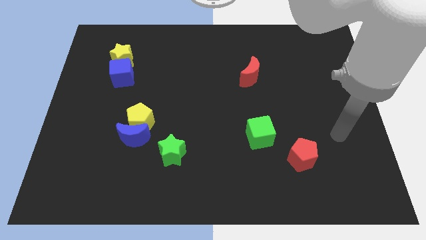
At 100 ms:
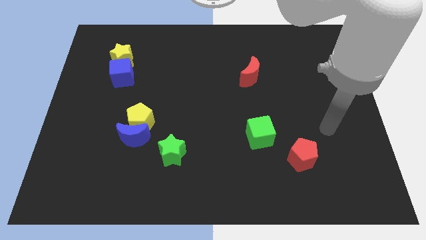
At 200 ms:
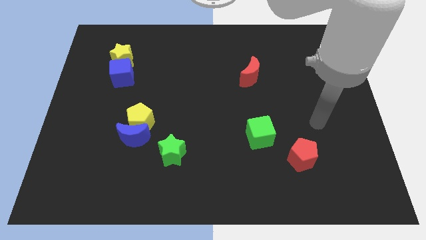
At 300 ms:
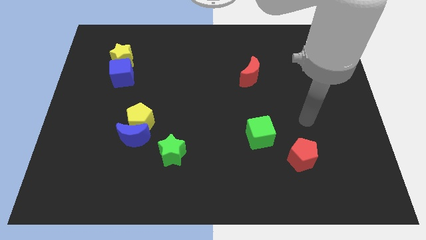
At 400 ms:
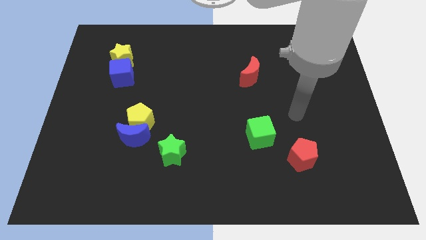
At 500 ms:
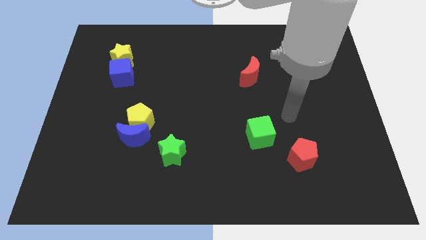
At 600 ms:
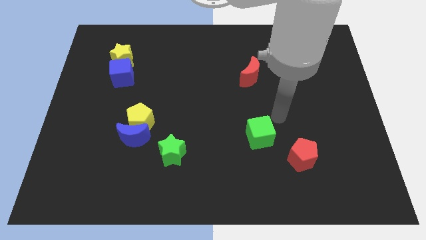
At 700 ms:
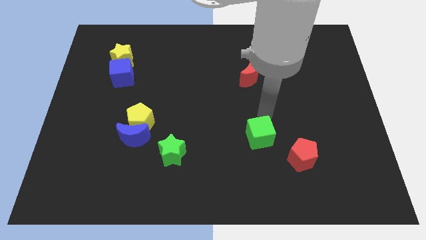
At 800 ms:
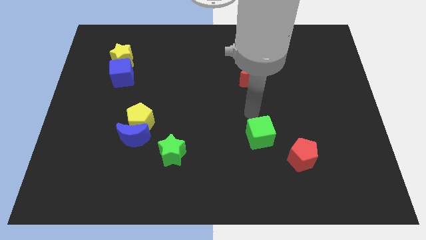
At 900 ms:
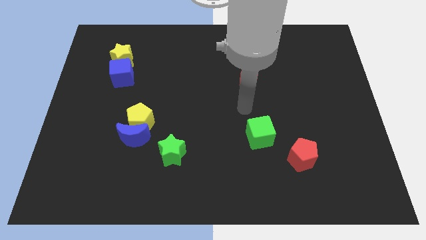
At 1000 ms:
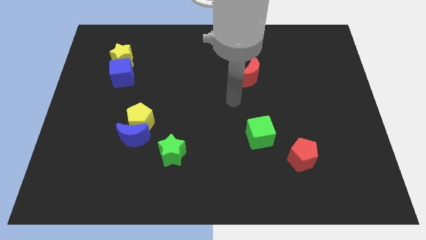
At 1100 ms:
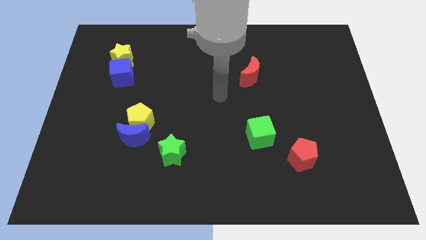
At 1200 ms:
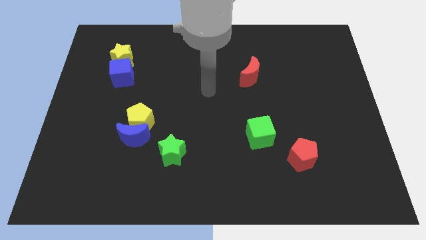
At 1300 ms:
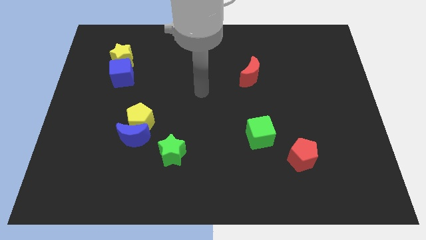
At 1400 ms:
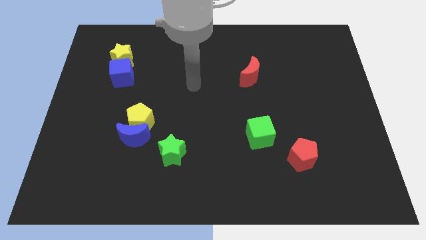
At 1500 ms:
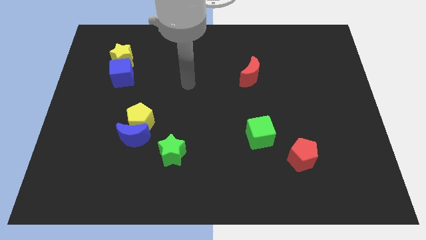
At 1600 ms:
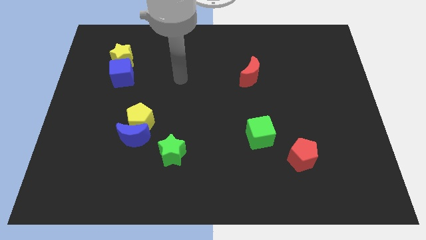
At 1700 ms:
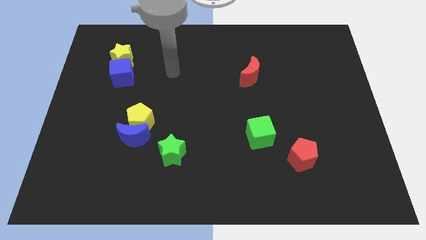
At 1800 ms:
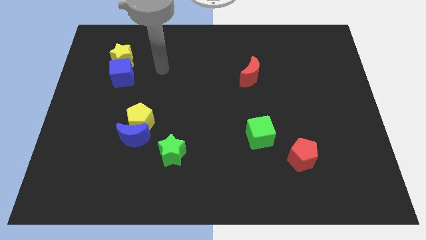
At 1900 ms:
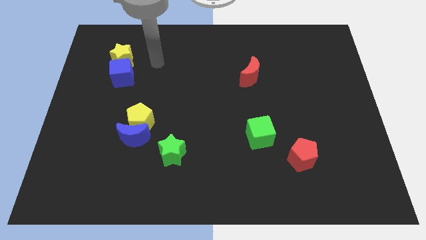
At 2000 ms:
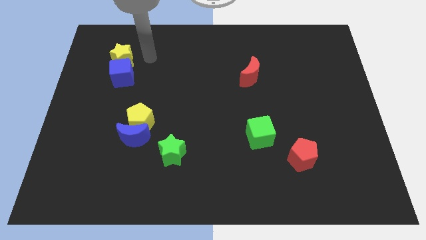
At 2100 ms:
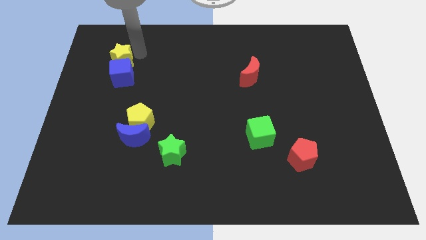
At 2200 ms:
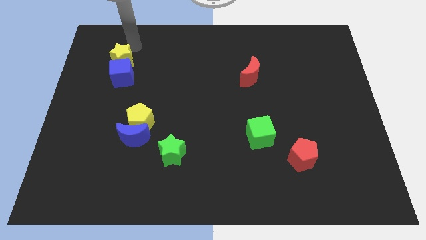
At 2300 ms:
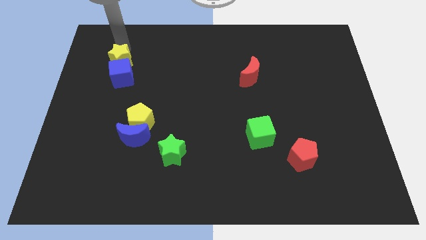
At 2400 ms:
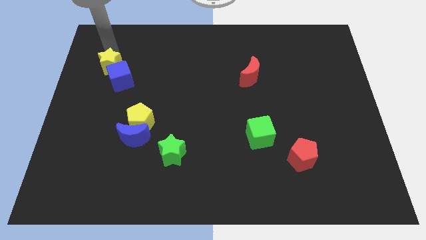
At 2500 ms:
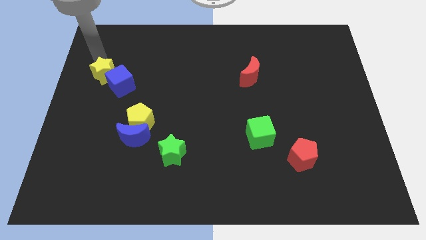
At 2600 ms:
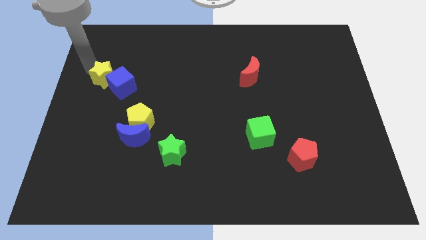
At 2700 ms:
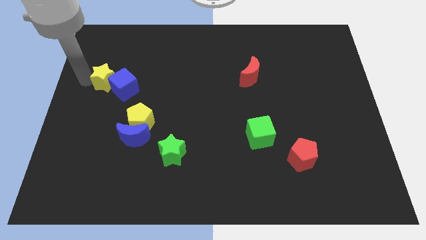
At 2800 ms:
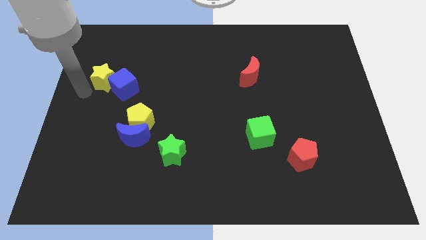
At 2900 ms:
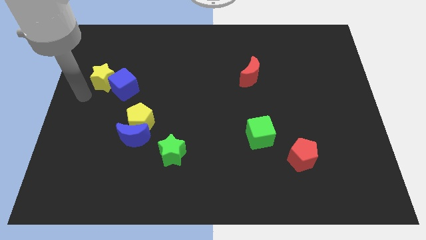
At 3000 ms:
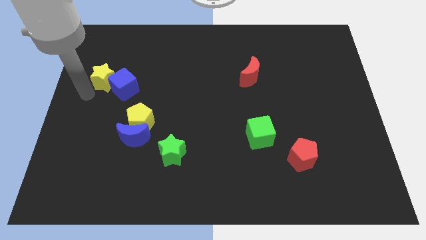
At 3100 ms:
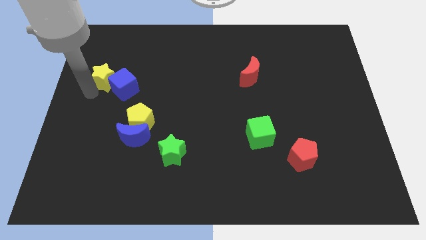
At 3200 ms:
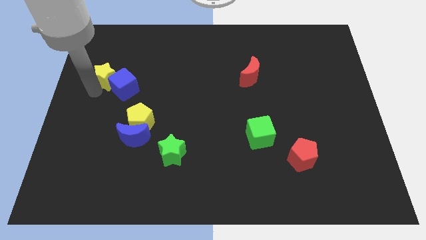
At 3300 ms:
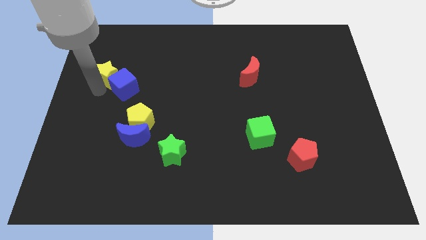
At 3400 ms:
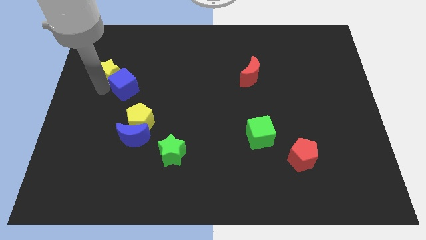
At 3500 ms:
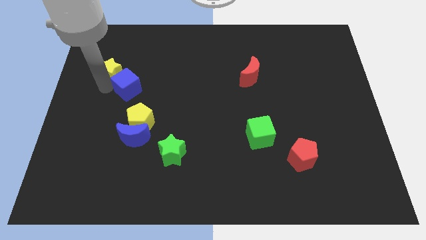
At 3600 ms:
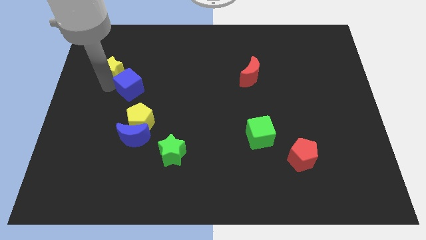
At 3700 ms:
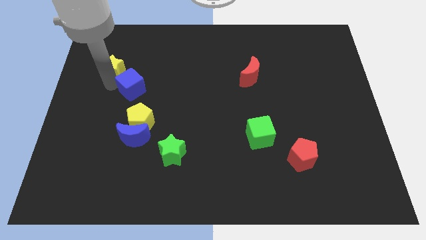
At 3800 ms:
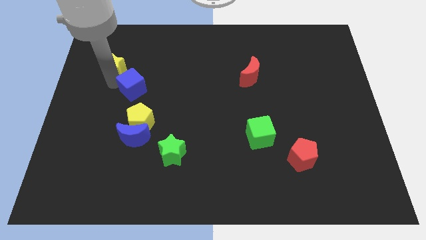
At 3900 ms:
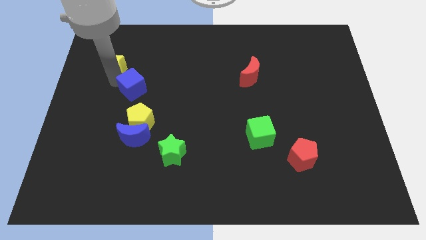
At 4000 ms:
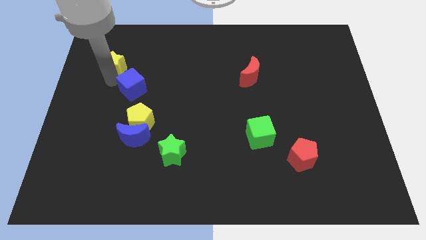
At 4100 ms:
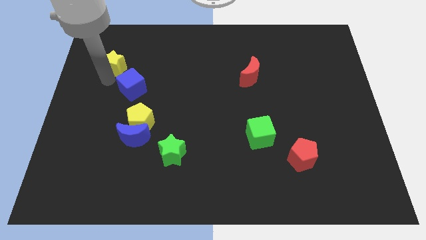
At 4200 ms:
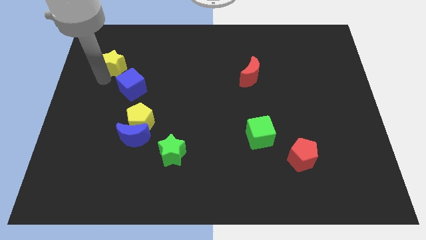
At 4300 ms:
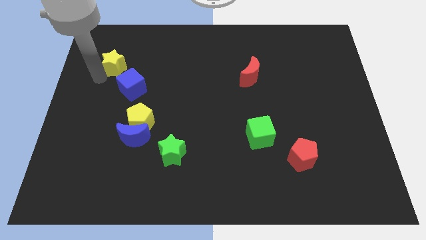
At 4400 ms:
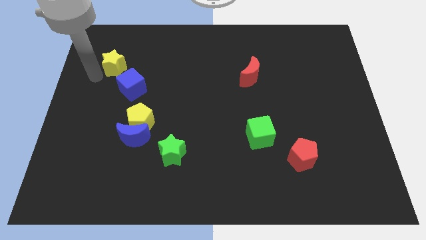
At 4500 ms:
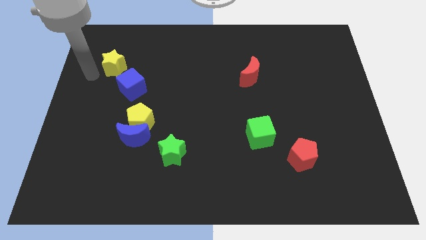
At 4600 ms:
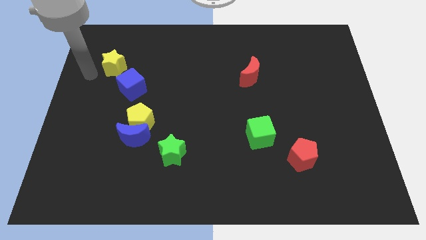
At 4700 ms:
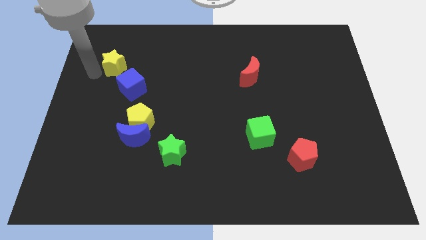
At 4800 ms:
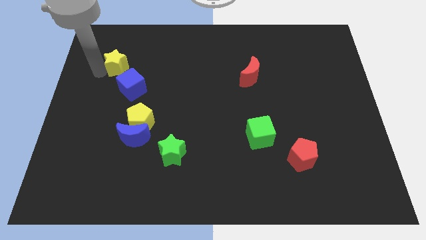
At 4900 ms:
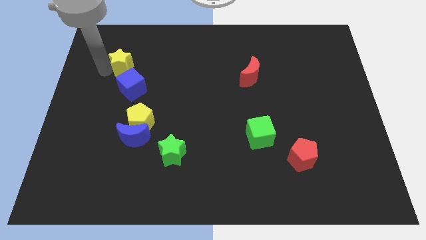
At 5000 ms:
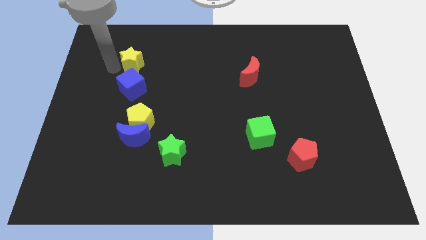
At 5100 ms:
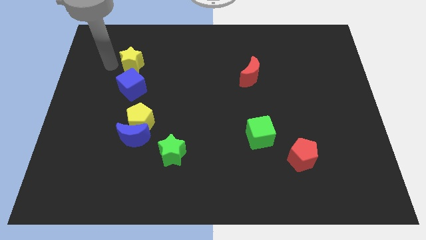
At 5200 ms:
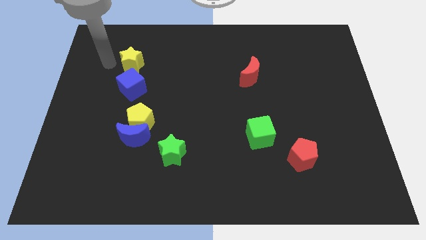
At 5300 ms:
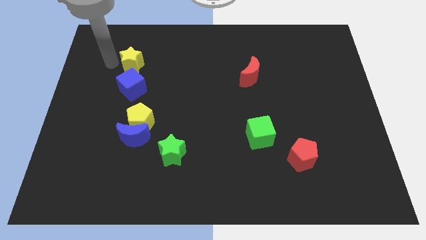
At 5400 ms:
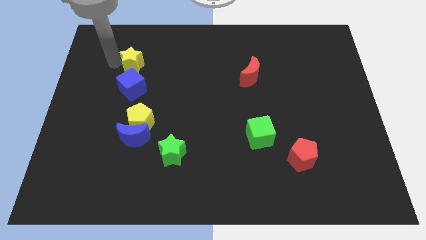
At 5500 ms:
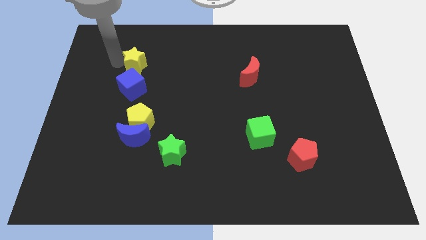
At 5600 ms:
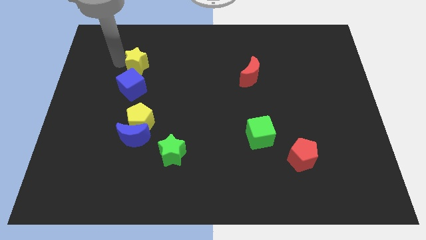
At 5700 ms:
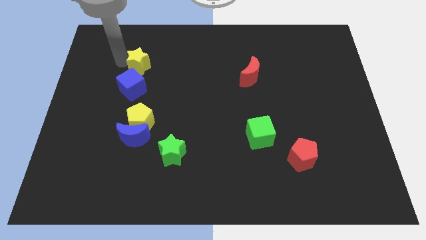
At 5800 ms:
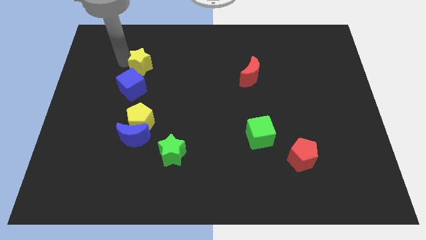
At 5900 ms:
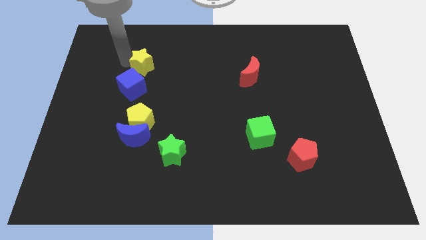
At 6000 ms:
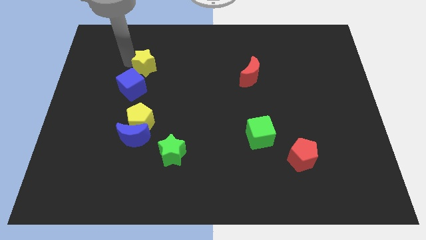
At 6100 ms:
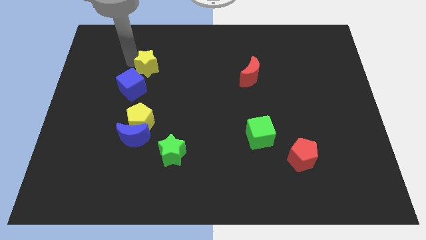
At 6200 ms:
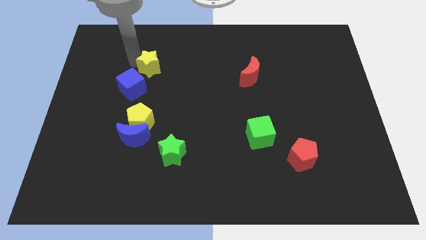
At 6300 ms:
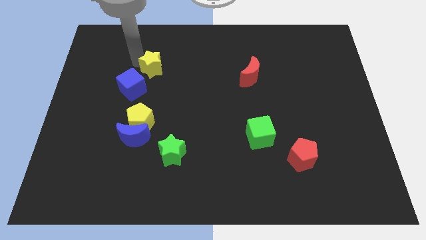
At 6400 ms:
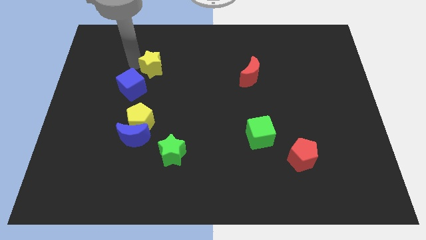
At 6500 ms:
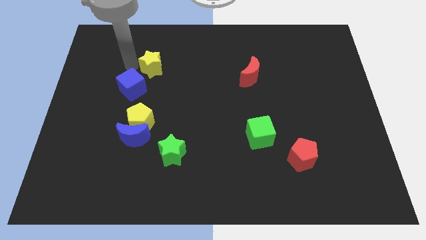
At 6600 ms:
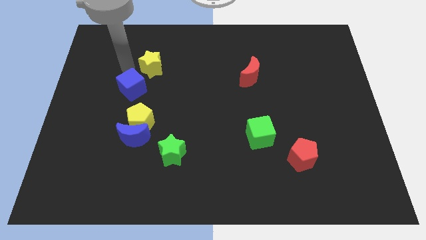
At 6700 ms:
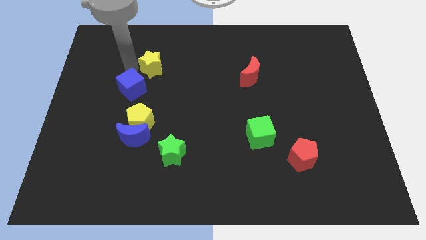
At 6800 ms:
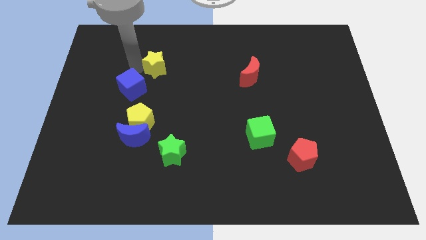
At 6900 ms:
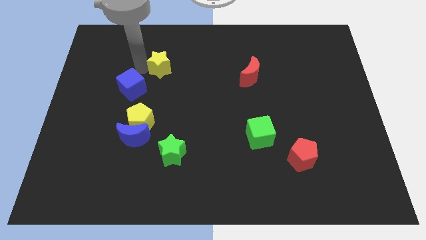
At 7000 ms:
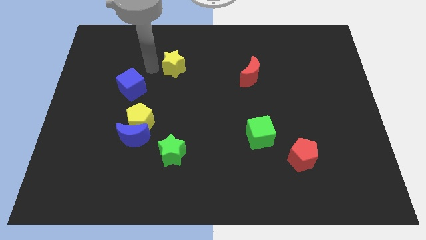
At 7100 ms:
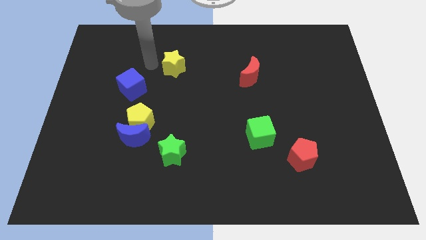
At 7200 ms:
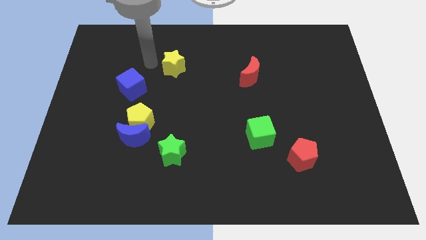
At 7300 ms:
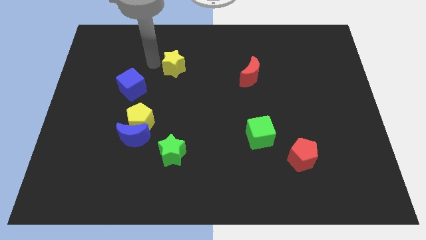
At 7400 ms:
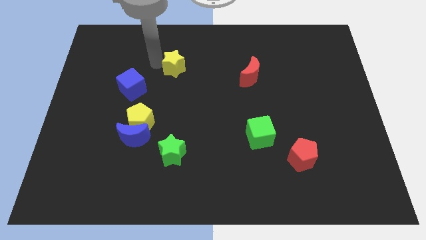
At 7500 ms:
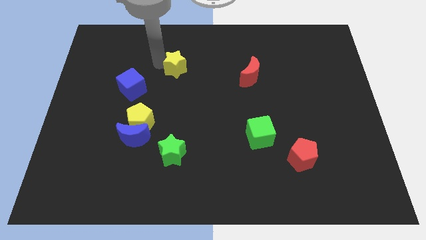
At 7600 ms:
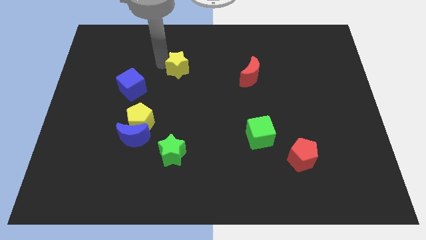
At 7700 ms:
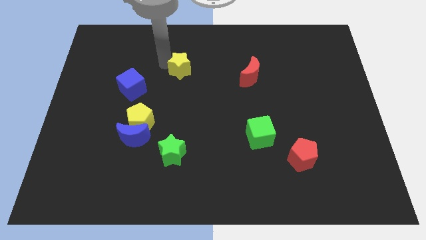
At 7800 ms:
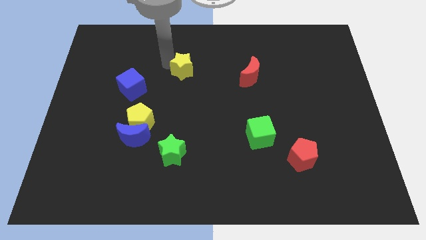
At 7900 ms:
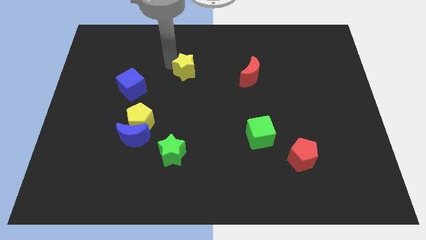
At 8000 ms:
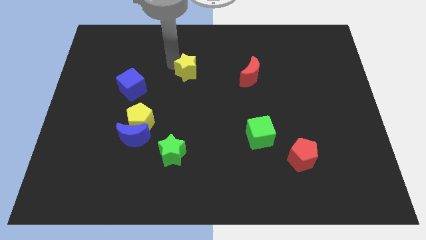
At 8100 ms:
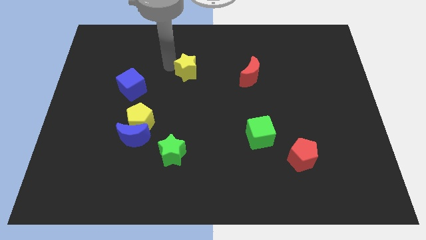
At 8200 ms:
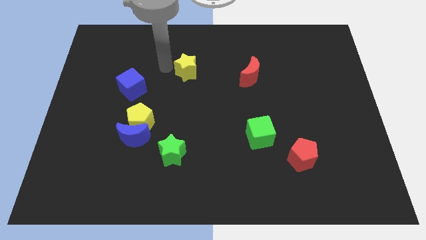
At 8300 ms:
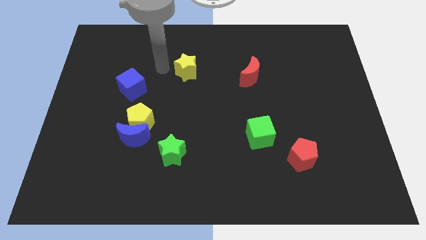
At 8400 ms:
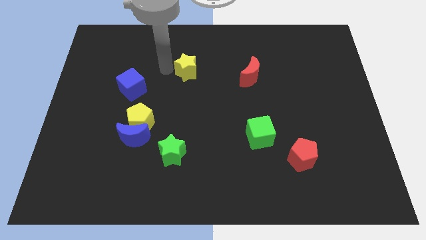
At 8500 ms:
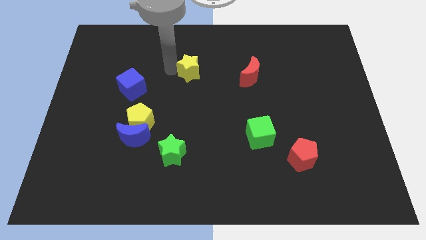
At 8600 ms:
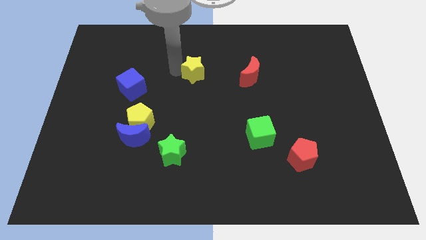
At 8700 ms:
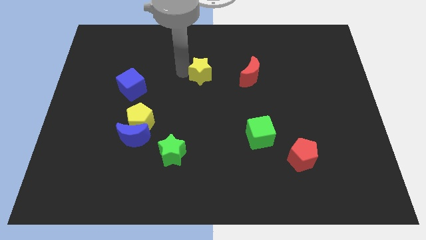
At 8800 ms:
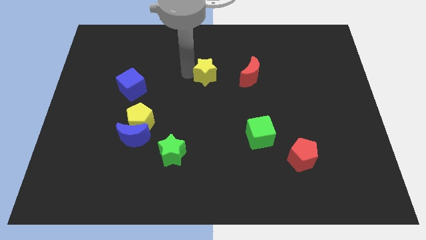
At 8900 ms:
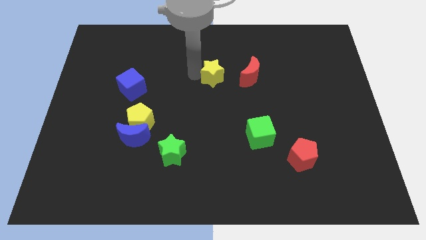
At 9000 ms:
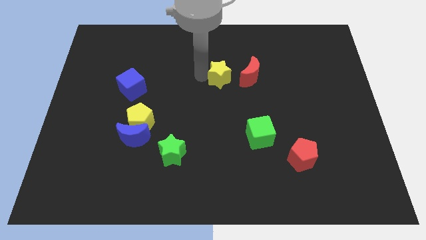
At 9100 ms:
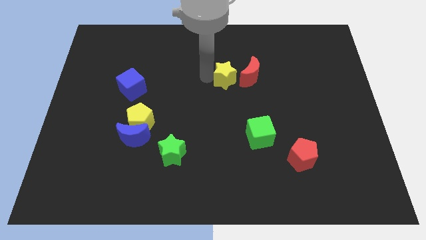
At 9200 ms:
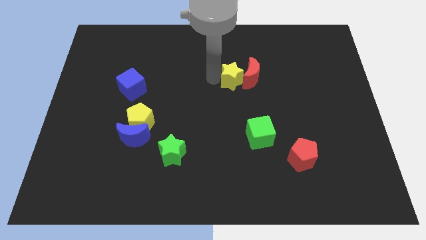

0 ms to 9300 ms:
put the yellow star to the red moon
